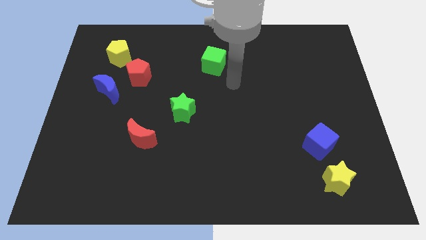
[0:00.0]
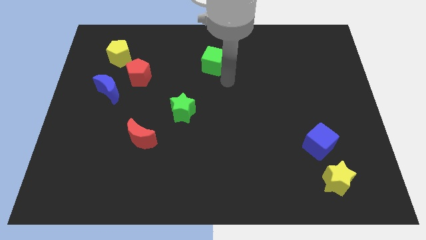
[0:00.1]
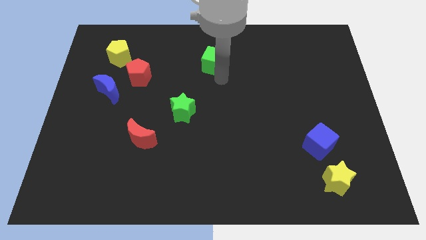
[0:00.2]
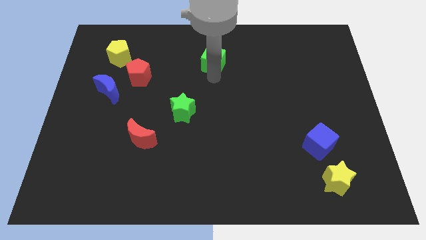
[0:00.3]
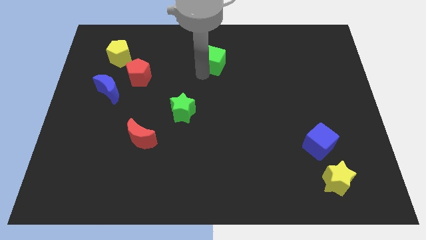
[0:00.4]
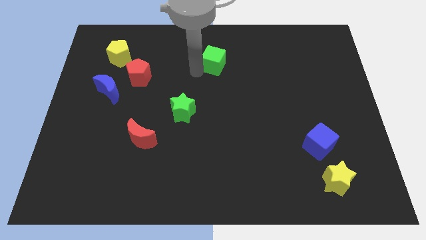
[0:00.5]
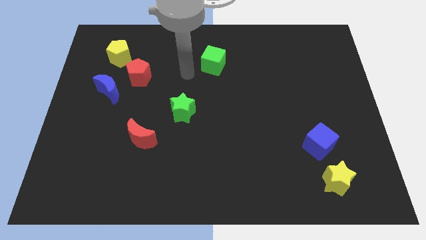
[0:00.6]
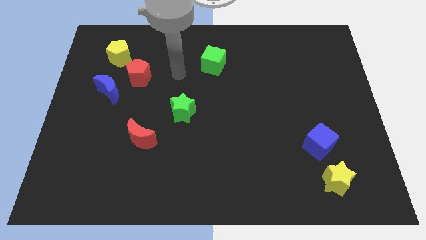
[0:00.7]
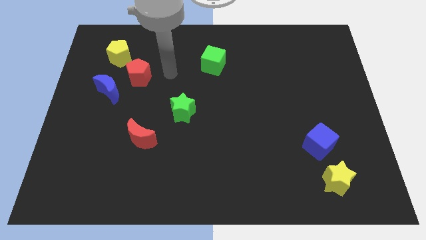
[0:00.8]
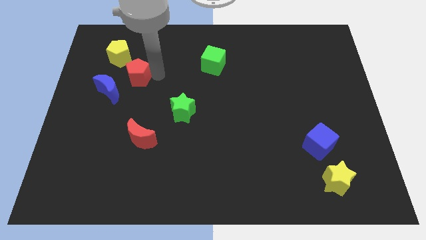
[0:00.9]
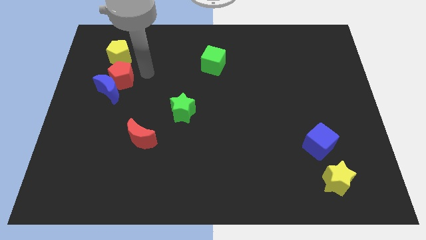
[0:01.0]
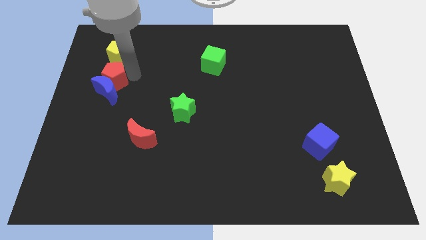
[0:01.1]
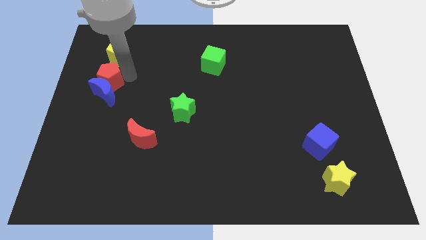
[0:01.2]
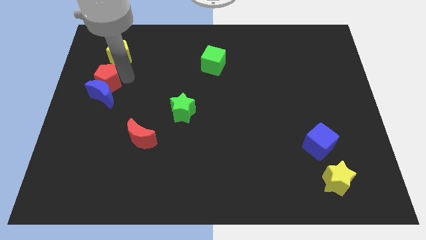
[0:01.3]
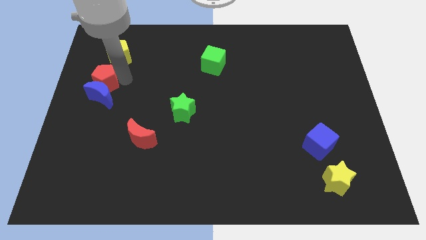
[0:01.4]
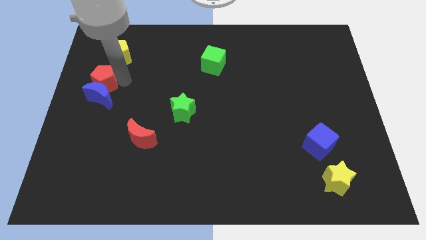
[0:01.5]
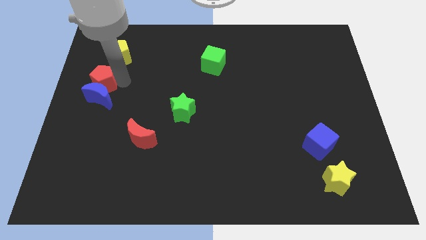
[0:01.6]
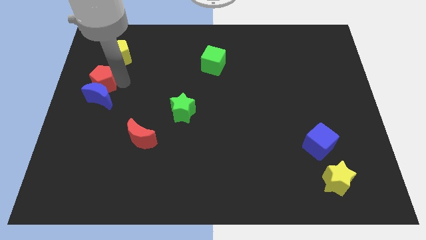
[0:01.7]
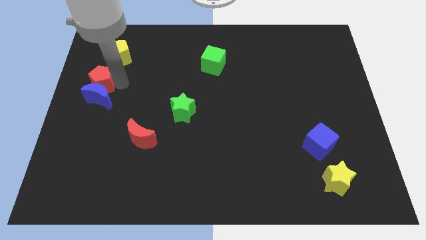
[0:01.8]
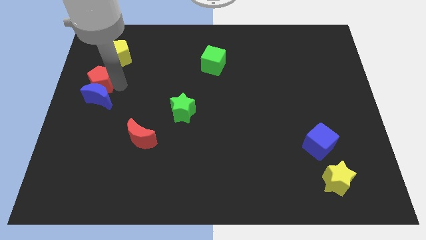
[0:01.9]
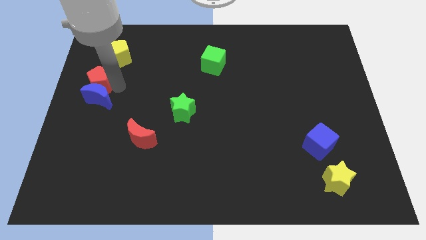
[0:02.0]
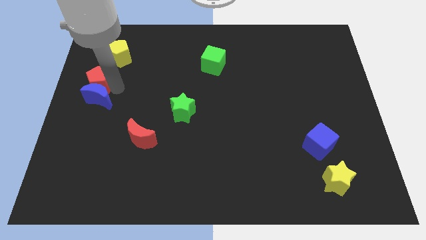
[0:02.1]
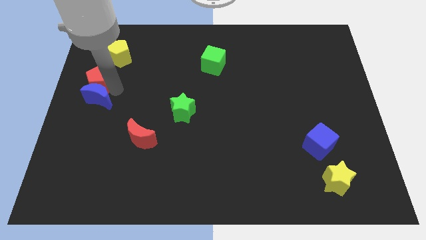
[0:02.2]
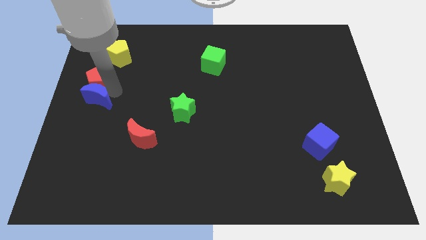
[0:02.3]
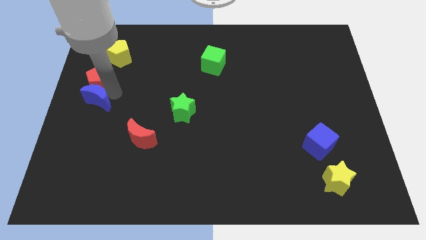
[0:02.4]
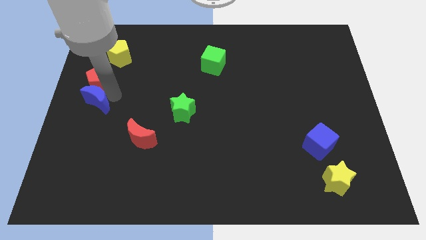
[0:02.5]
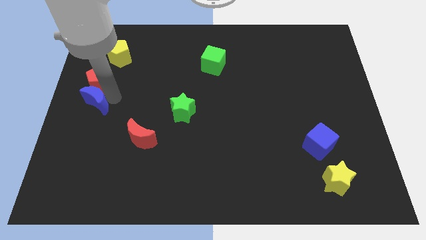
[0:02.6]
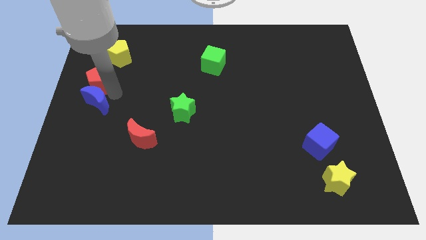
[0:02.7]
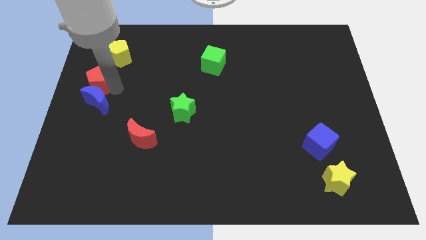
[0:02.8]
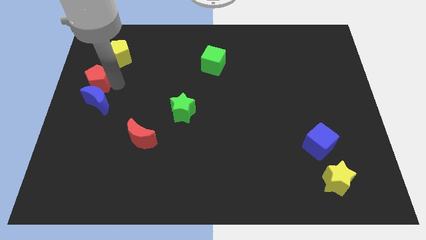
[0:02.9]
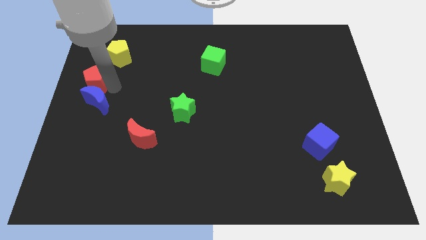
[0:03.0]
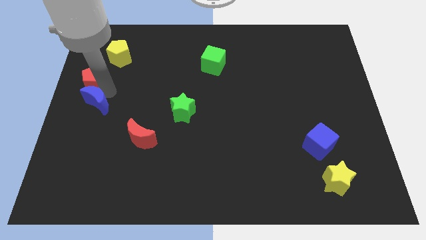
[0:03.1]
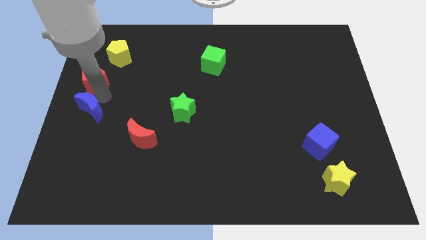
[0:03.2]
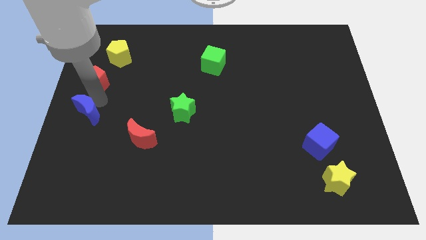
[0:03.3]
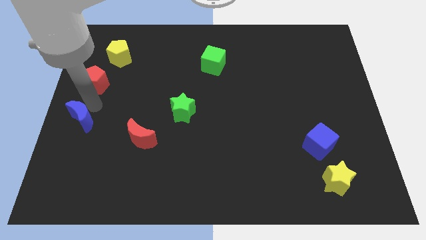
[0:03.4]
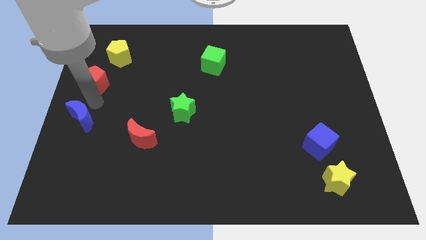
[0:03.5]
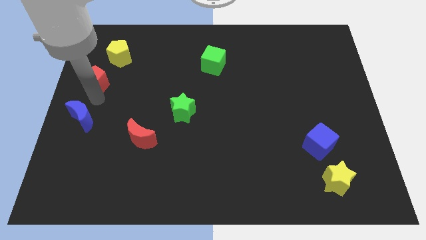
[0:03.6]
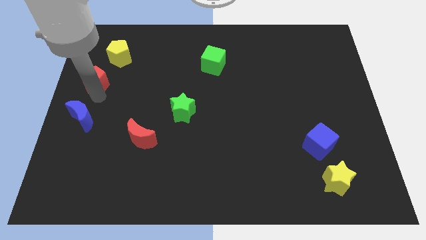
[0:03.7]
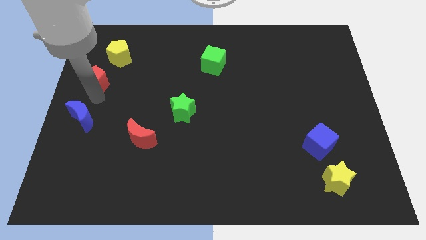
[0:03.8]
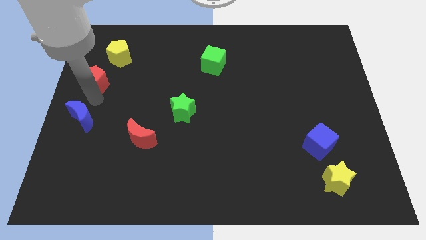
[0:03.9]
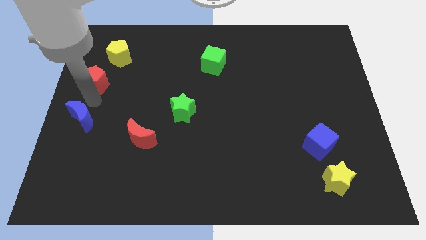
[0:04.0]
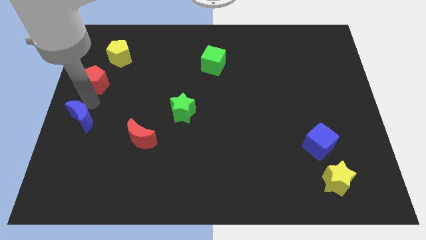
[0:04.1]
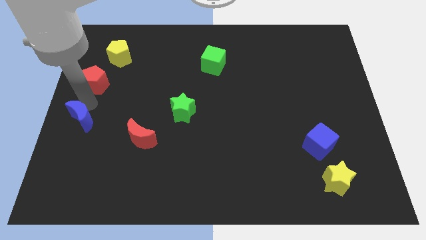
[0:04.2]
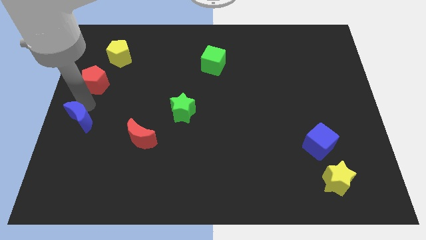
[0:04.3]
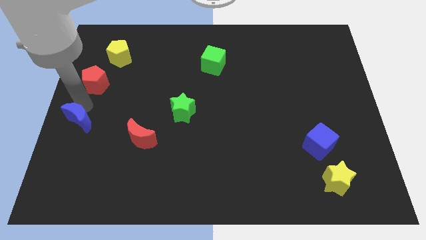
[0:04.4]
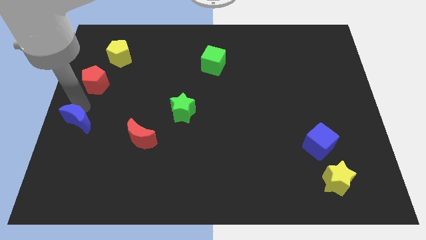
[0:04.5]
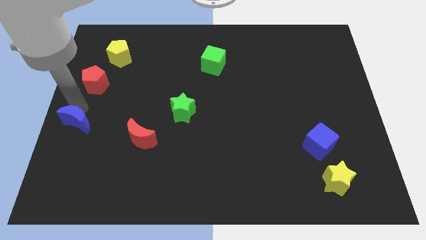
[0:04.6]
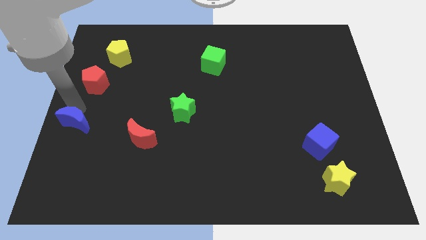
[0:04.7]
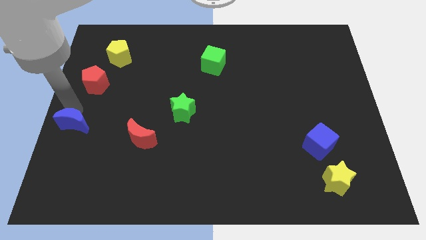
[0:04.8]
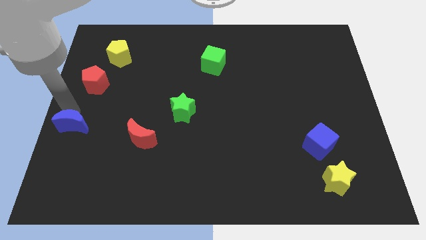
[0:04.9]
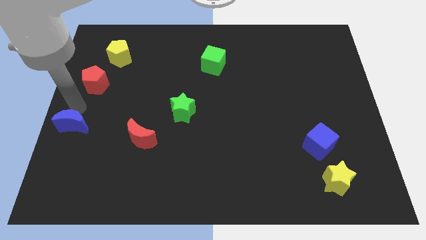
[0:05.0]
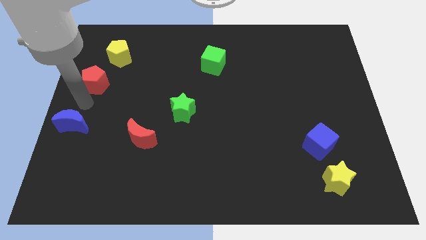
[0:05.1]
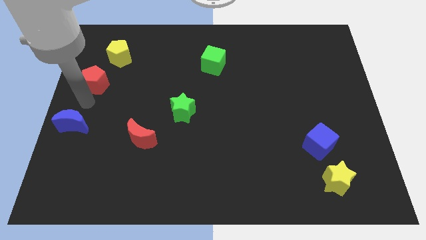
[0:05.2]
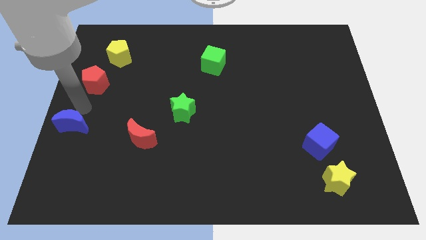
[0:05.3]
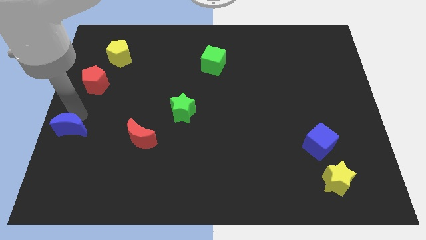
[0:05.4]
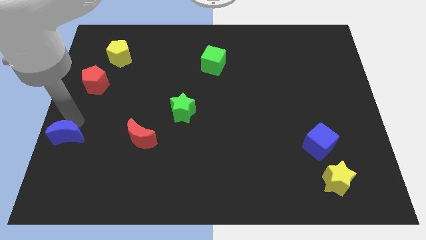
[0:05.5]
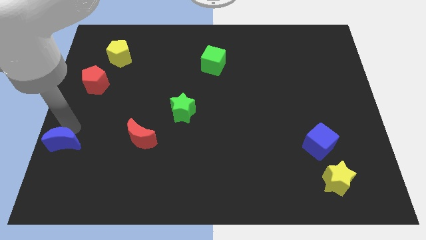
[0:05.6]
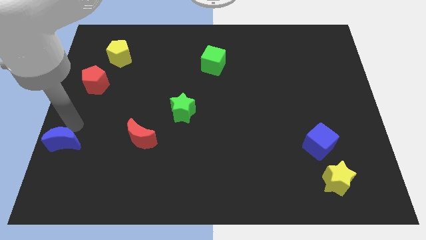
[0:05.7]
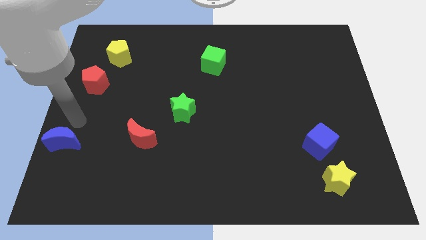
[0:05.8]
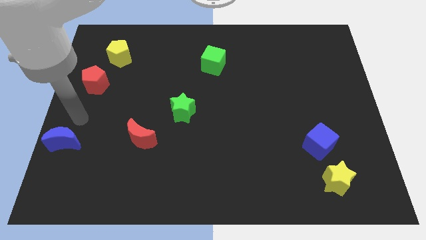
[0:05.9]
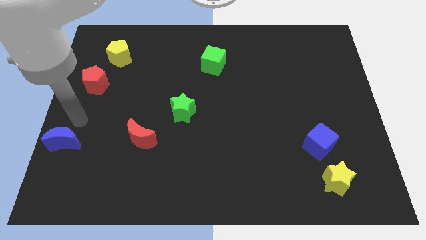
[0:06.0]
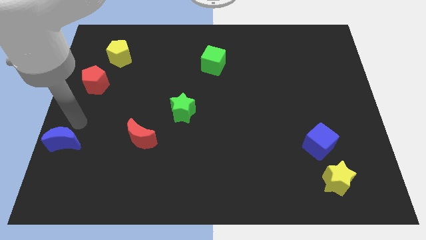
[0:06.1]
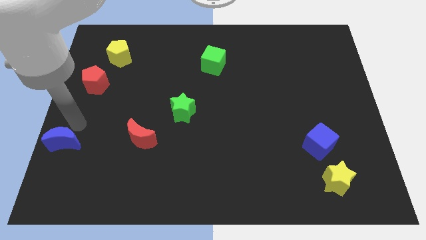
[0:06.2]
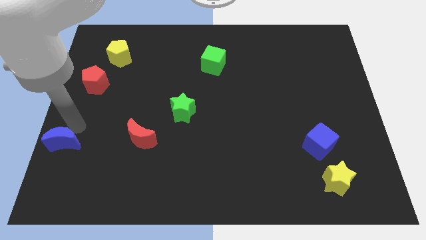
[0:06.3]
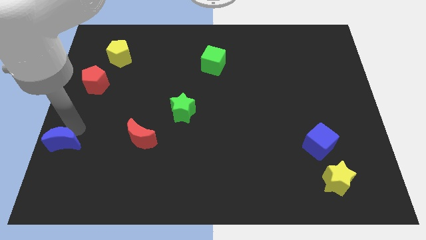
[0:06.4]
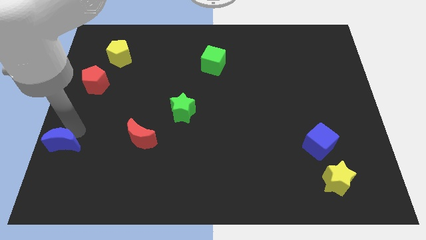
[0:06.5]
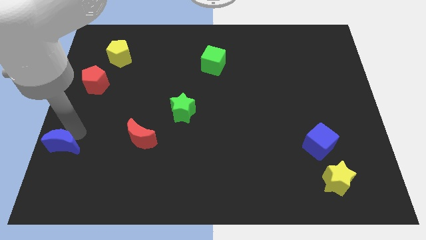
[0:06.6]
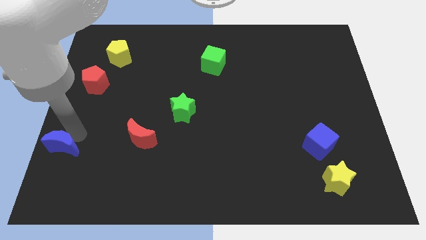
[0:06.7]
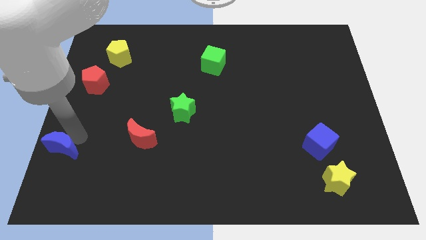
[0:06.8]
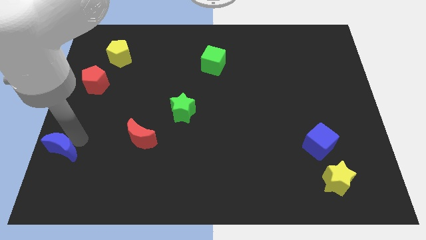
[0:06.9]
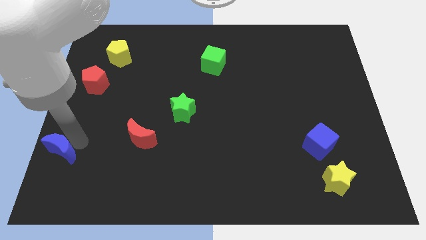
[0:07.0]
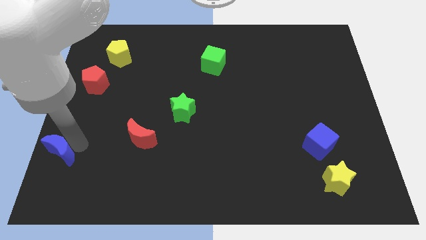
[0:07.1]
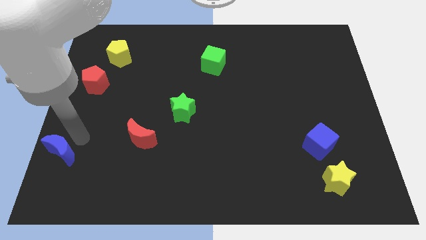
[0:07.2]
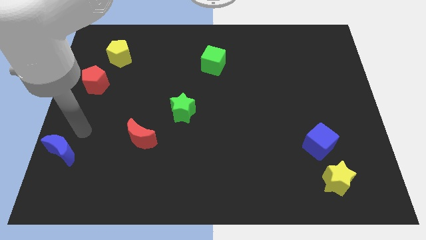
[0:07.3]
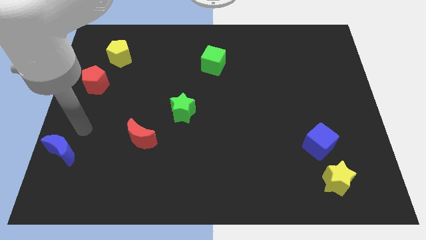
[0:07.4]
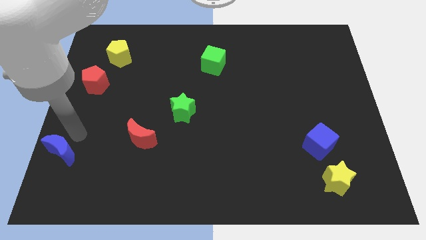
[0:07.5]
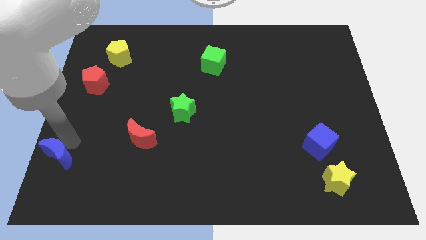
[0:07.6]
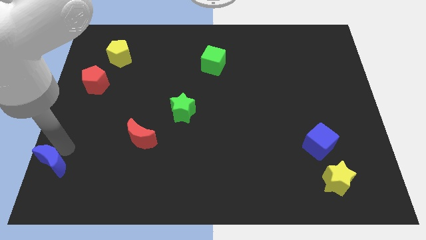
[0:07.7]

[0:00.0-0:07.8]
push the blue moon to the bottom left
